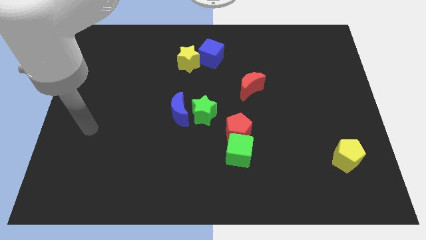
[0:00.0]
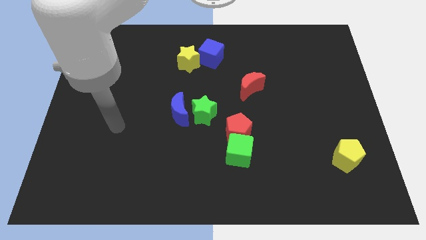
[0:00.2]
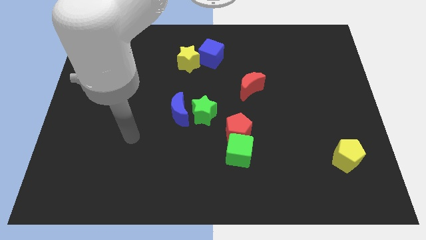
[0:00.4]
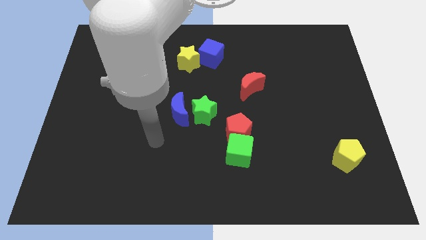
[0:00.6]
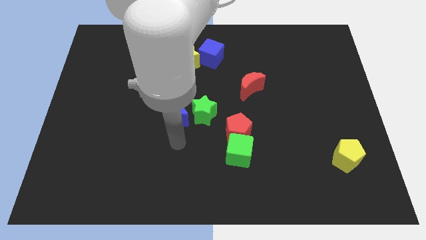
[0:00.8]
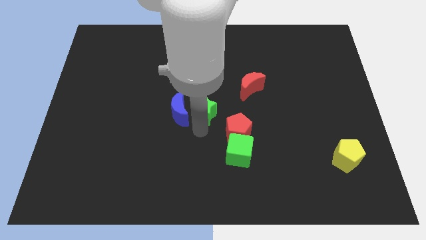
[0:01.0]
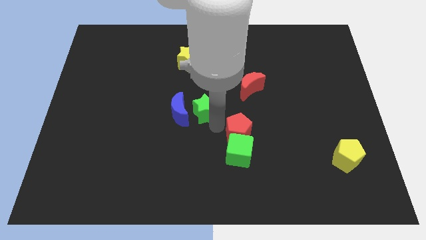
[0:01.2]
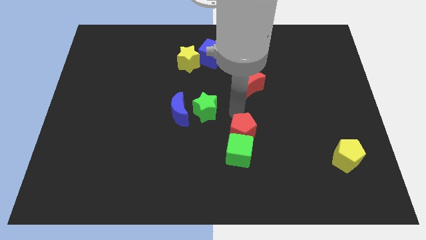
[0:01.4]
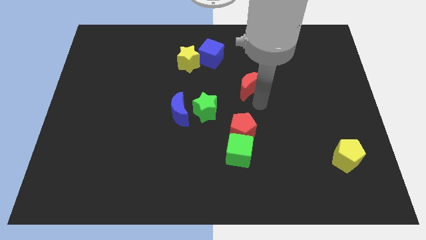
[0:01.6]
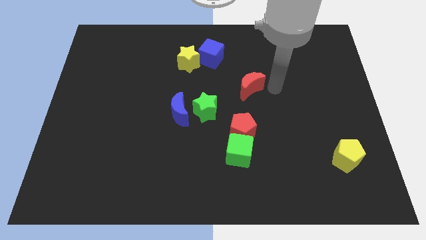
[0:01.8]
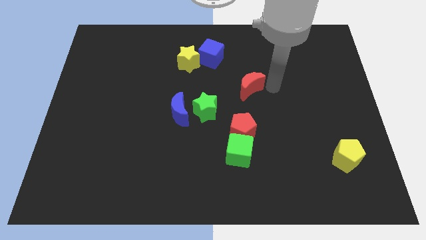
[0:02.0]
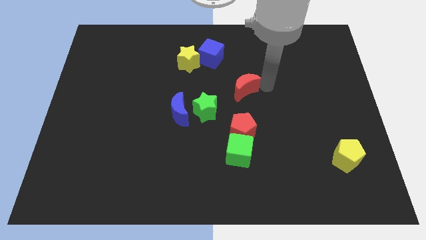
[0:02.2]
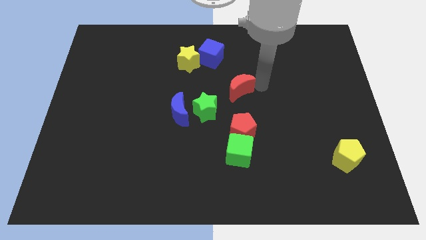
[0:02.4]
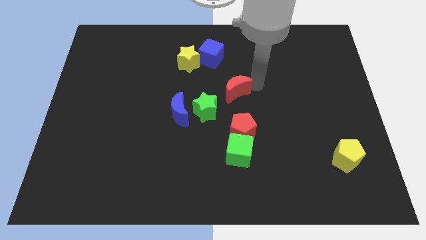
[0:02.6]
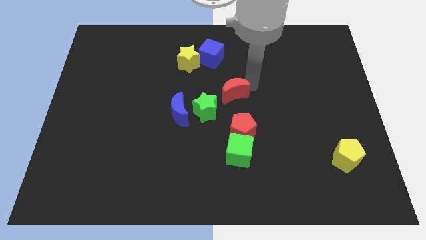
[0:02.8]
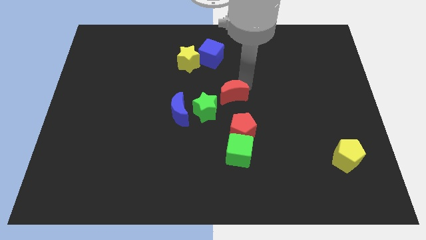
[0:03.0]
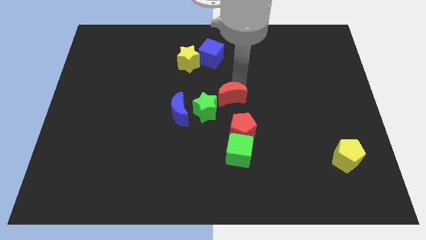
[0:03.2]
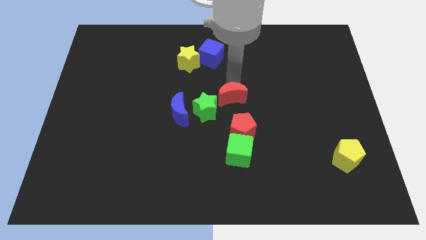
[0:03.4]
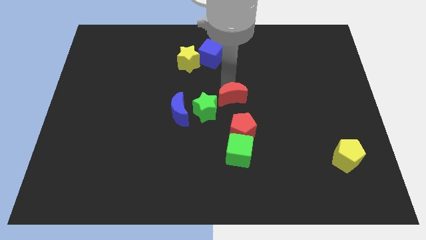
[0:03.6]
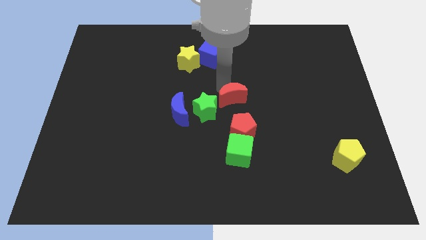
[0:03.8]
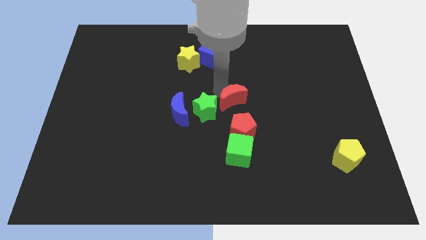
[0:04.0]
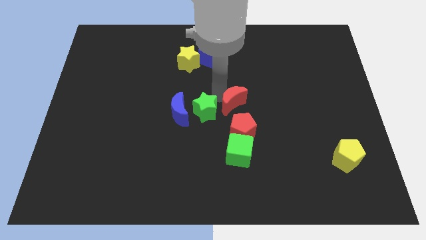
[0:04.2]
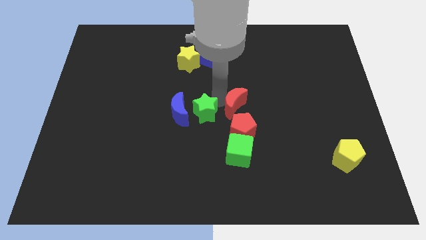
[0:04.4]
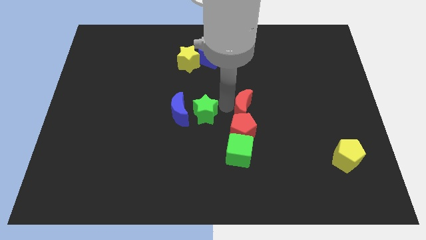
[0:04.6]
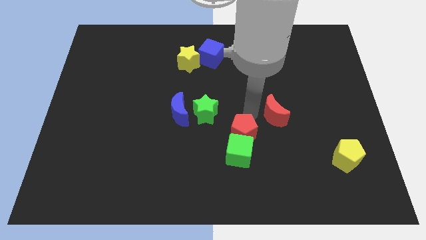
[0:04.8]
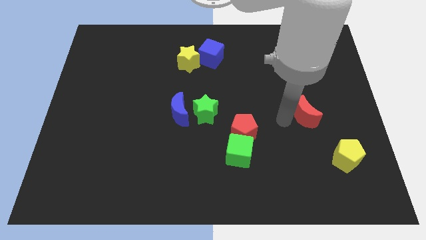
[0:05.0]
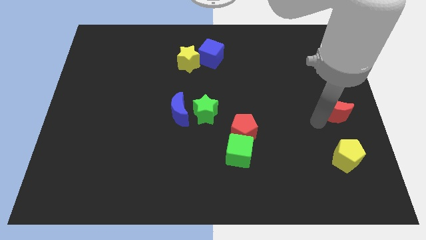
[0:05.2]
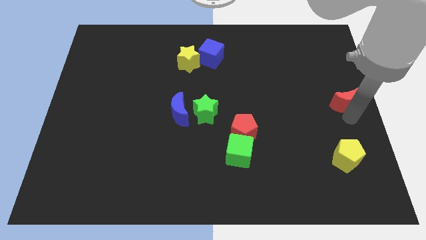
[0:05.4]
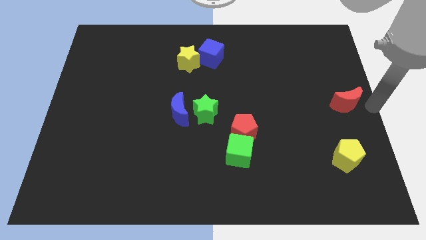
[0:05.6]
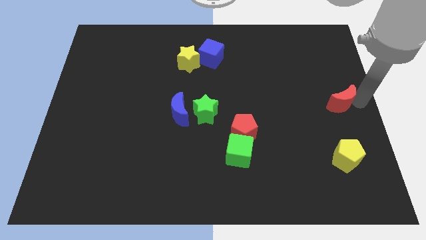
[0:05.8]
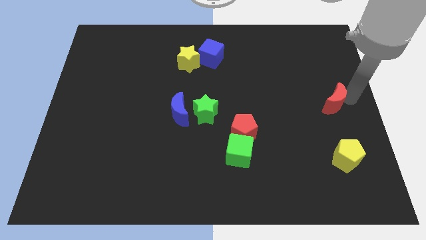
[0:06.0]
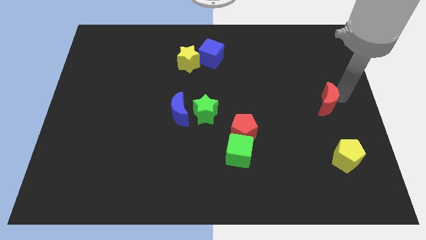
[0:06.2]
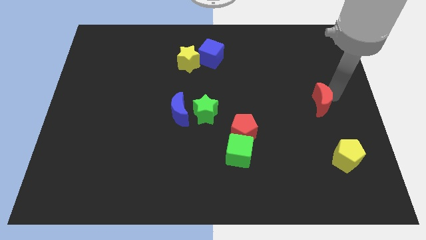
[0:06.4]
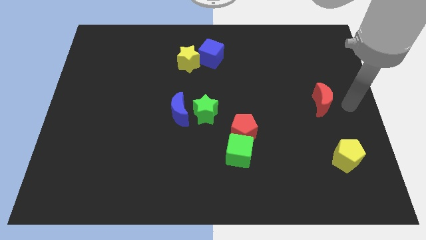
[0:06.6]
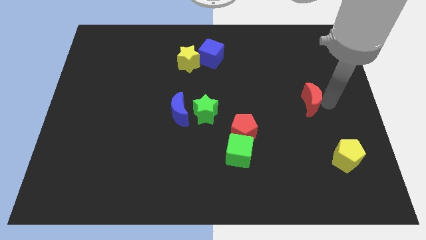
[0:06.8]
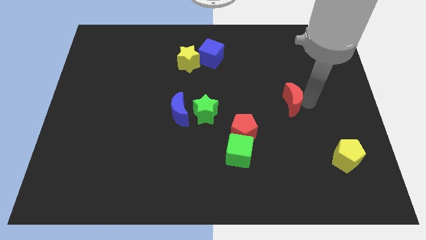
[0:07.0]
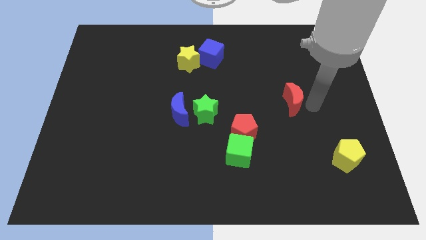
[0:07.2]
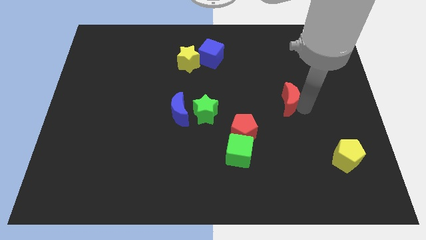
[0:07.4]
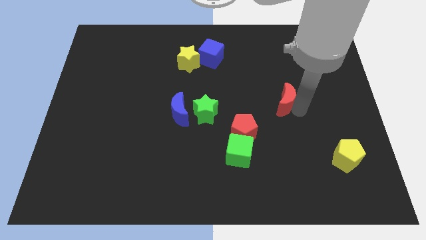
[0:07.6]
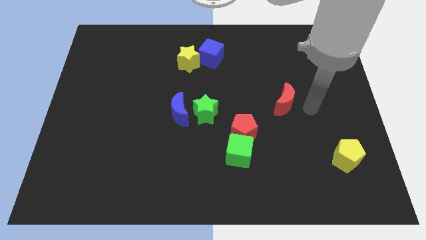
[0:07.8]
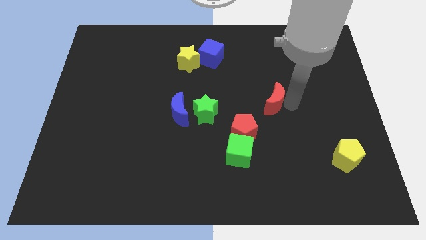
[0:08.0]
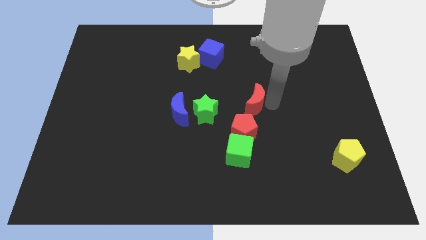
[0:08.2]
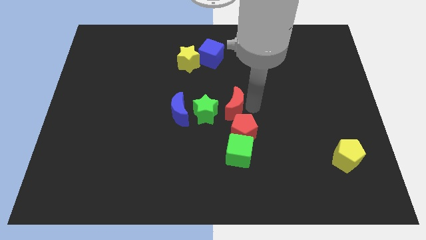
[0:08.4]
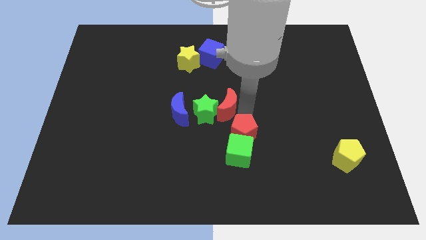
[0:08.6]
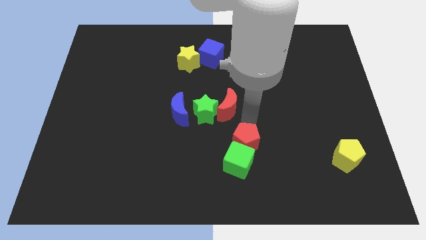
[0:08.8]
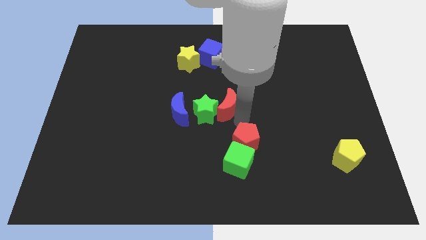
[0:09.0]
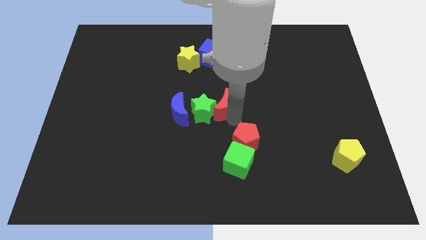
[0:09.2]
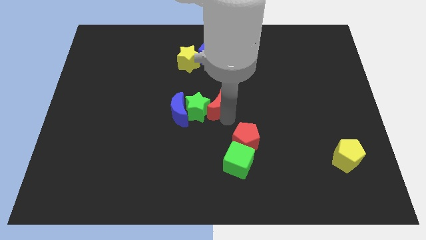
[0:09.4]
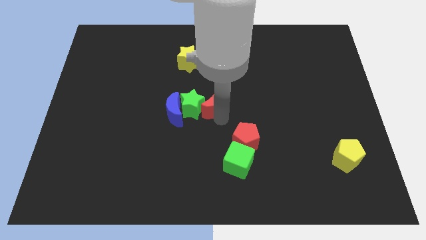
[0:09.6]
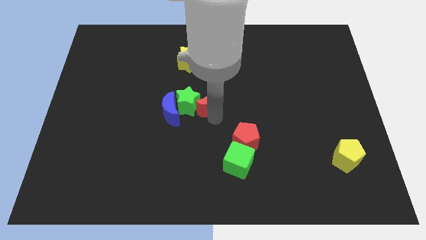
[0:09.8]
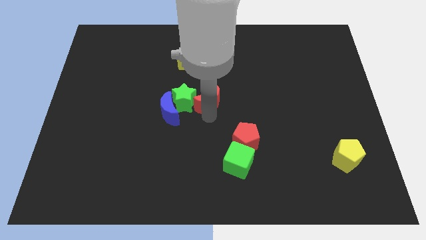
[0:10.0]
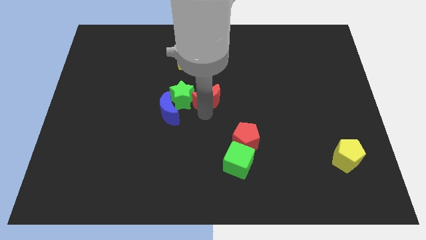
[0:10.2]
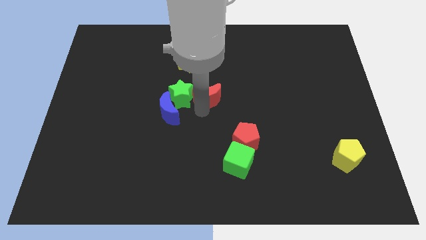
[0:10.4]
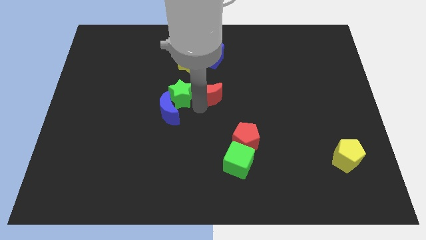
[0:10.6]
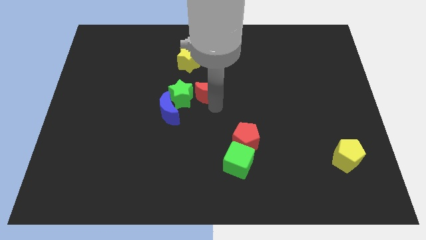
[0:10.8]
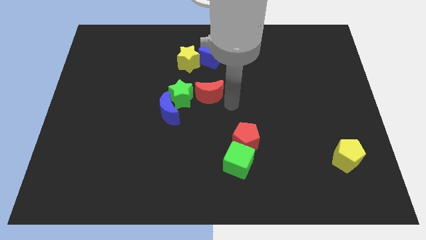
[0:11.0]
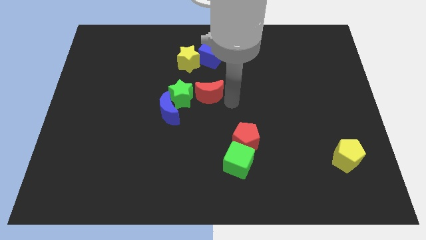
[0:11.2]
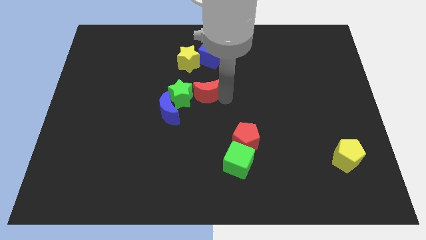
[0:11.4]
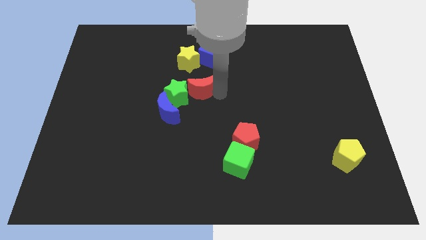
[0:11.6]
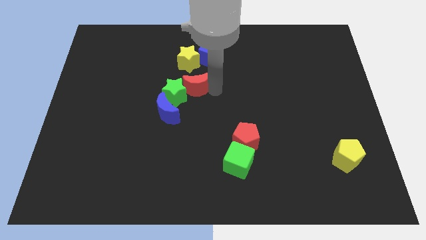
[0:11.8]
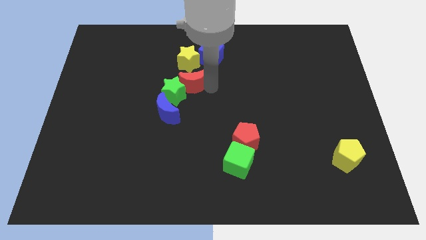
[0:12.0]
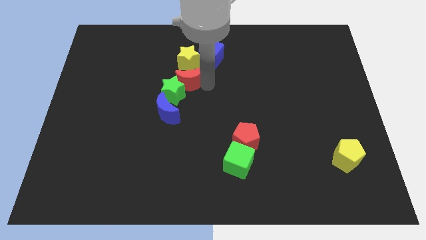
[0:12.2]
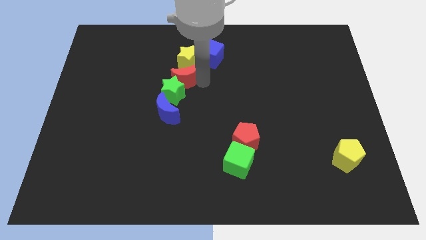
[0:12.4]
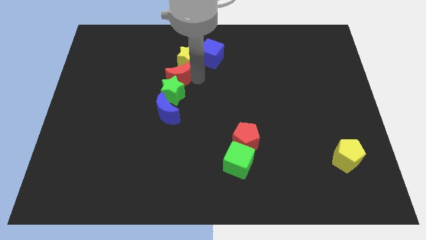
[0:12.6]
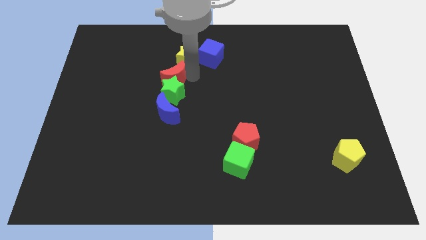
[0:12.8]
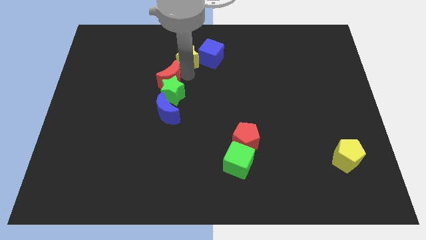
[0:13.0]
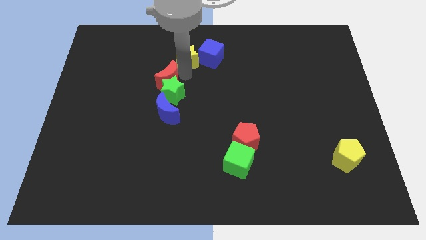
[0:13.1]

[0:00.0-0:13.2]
slide the red moon left

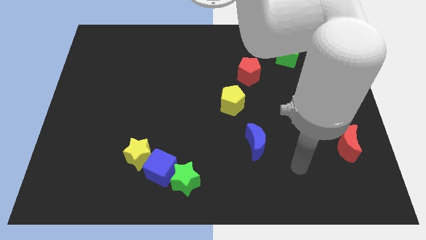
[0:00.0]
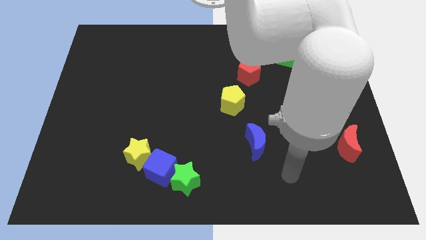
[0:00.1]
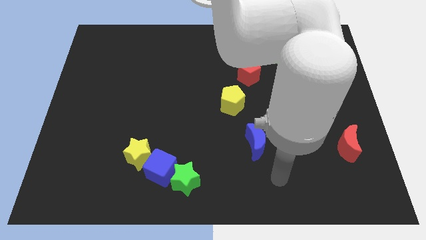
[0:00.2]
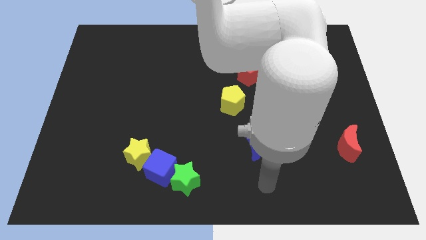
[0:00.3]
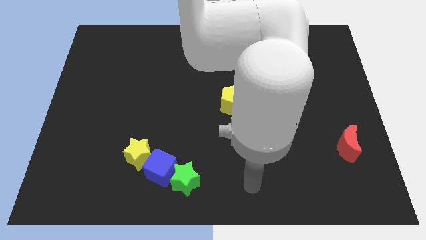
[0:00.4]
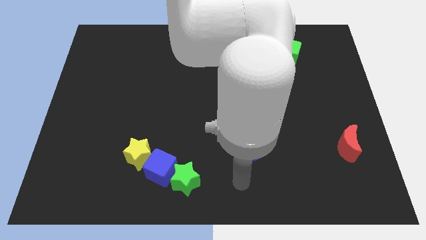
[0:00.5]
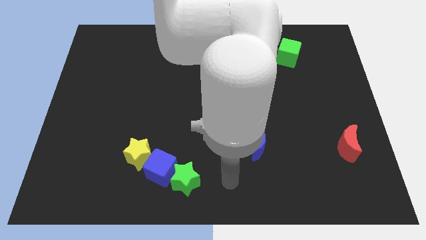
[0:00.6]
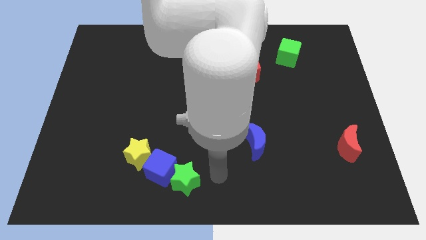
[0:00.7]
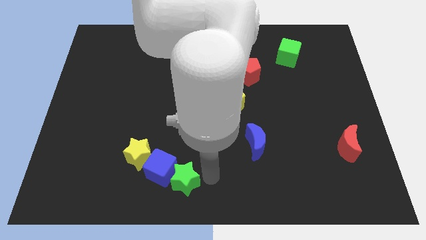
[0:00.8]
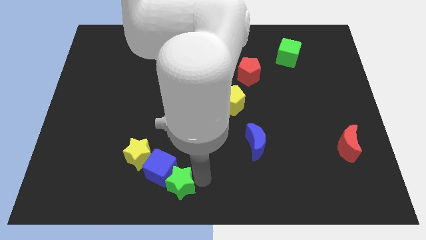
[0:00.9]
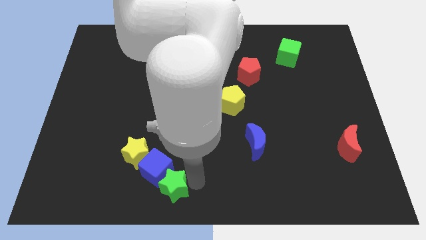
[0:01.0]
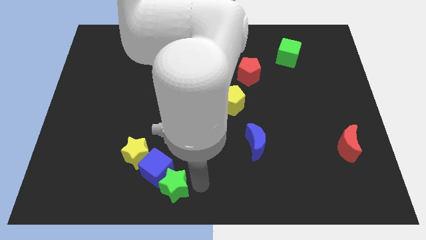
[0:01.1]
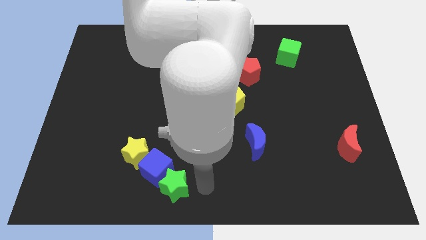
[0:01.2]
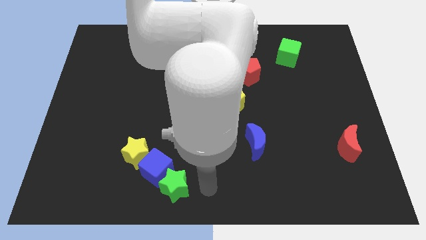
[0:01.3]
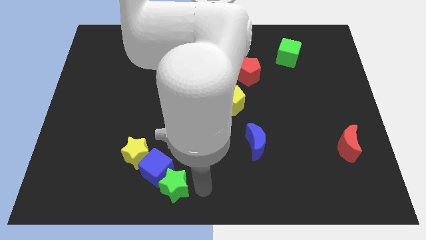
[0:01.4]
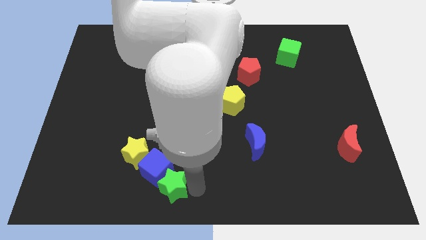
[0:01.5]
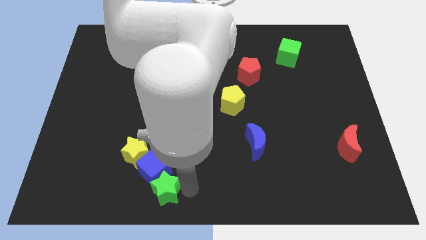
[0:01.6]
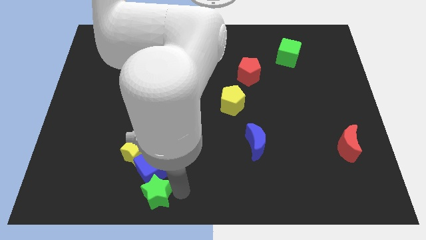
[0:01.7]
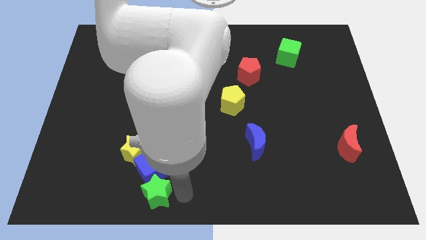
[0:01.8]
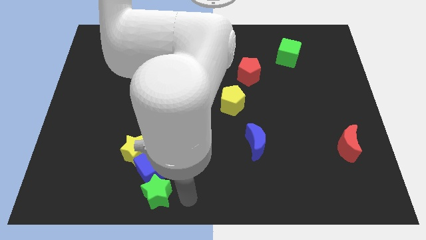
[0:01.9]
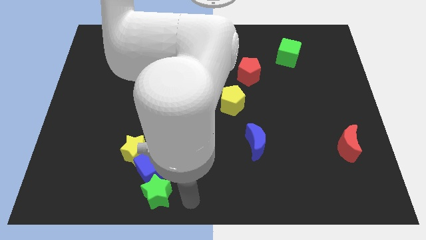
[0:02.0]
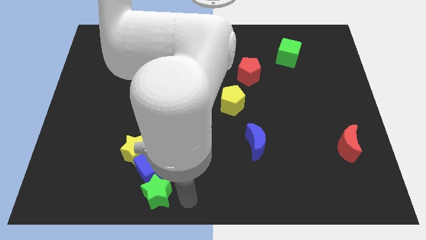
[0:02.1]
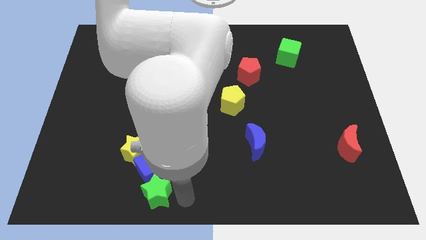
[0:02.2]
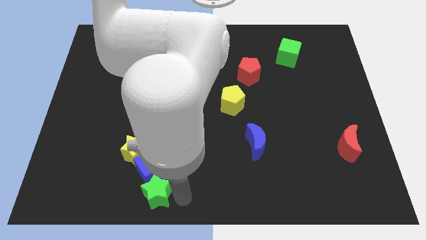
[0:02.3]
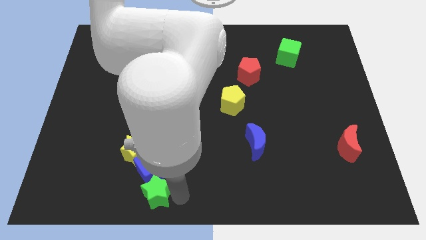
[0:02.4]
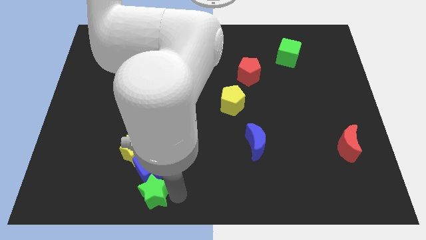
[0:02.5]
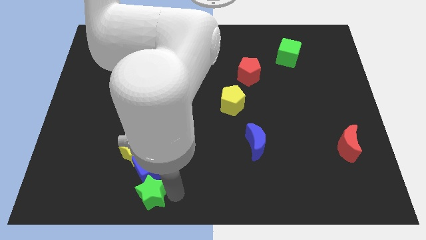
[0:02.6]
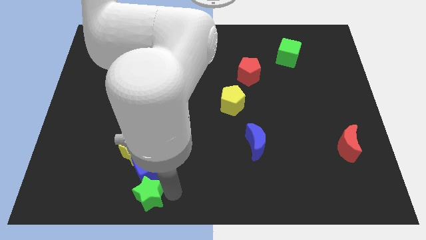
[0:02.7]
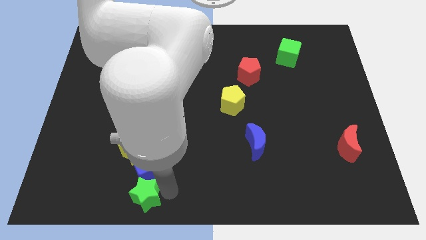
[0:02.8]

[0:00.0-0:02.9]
move the green star somewhat to the left
